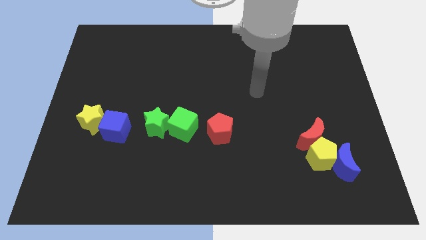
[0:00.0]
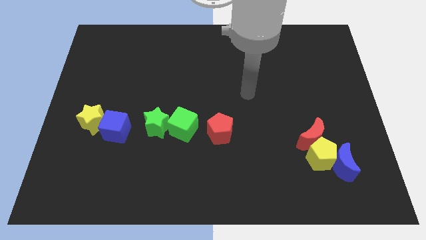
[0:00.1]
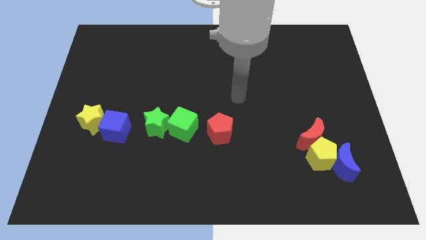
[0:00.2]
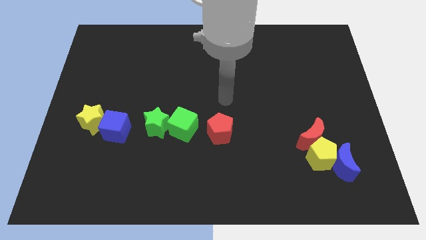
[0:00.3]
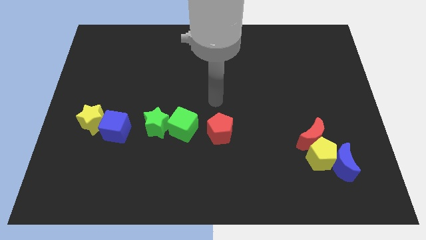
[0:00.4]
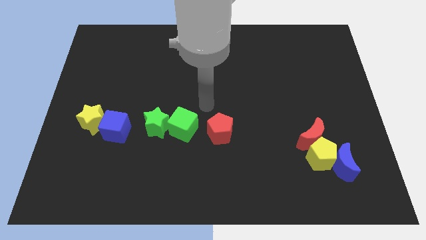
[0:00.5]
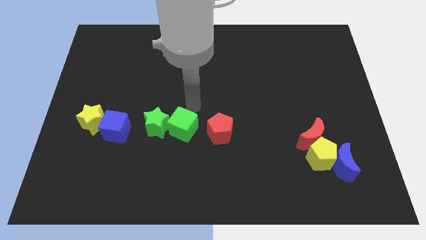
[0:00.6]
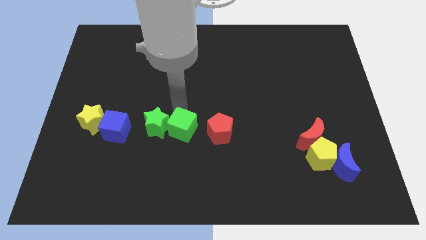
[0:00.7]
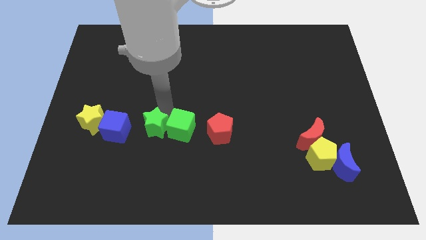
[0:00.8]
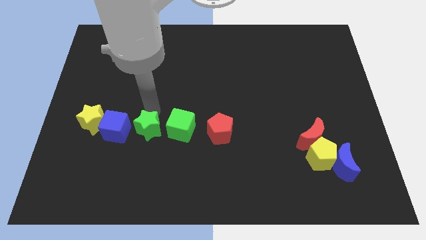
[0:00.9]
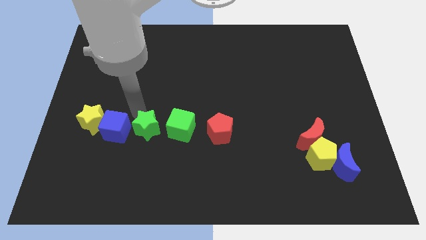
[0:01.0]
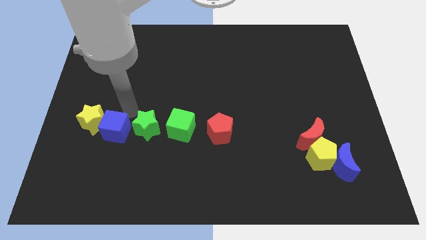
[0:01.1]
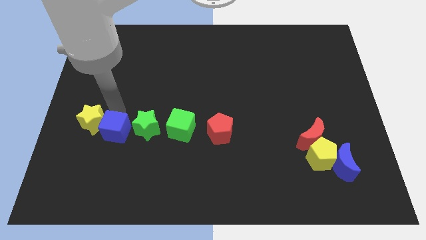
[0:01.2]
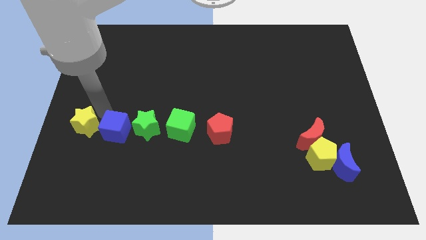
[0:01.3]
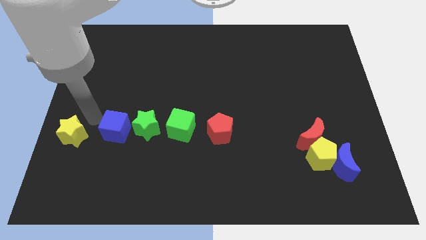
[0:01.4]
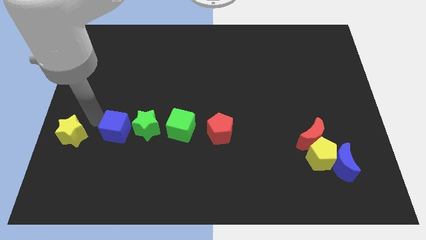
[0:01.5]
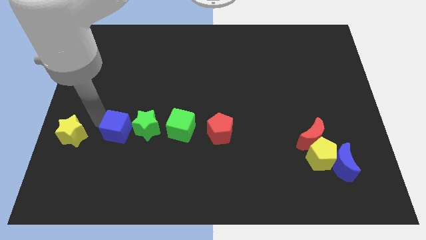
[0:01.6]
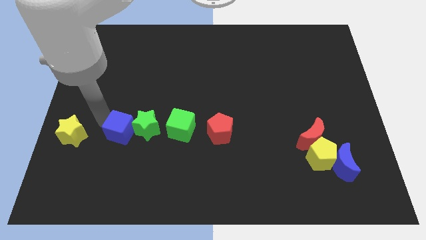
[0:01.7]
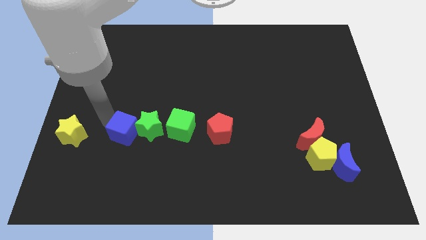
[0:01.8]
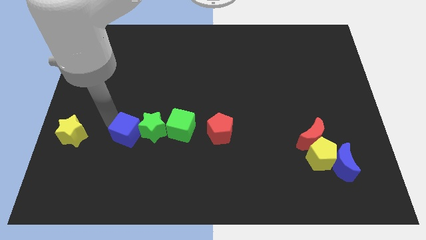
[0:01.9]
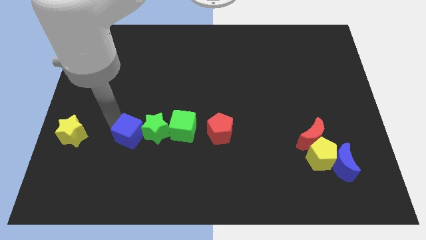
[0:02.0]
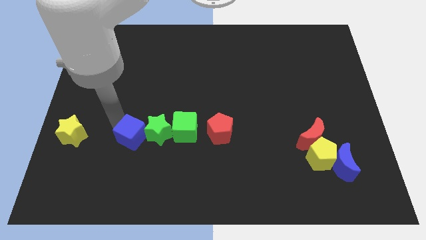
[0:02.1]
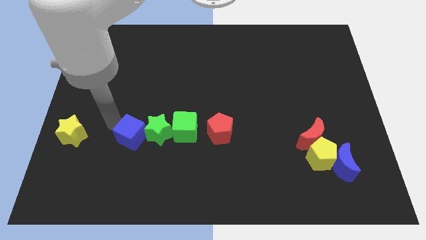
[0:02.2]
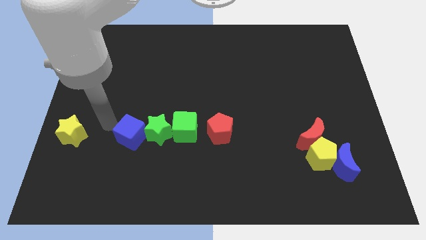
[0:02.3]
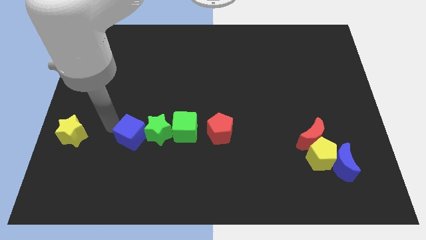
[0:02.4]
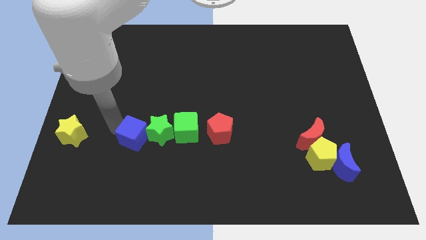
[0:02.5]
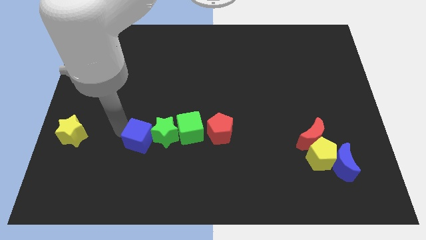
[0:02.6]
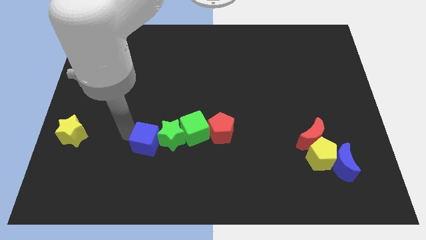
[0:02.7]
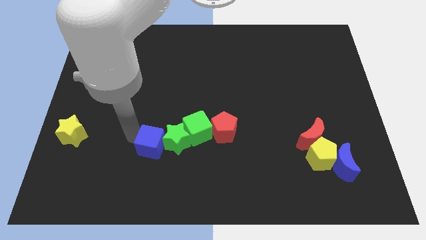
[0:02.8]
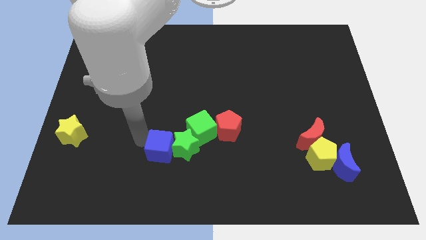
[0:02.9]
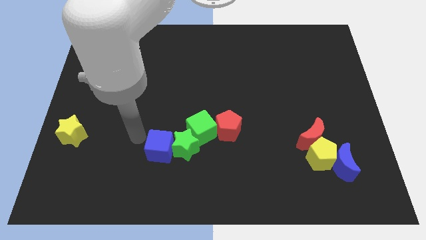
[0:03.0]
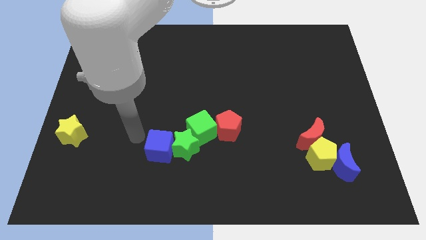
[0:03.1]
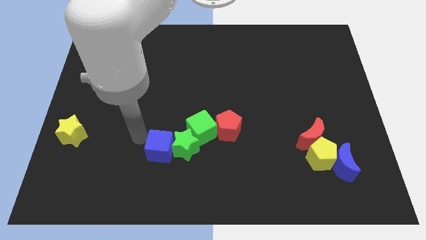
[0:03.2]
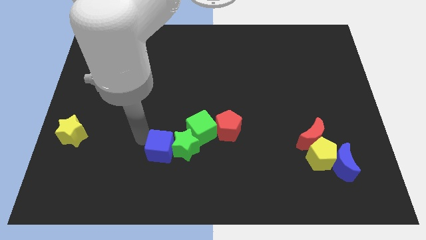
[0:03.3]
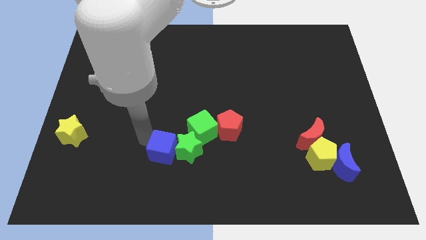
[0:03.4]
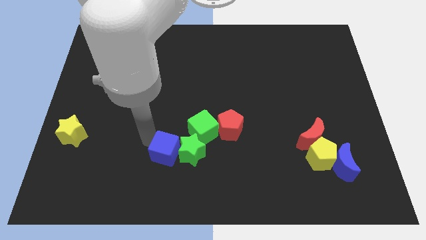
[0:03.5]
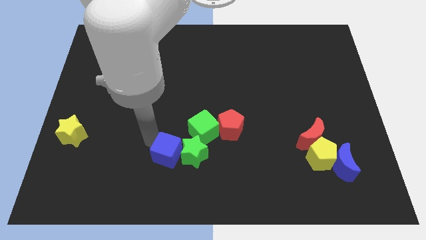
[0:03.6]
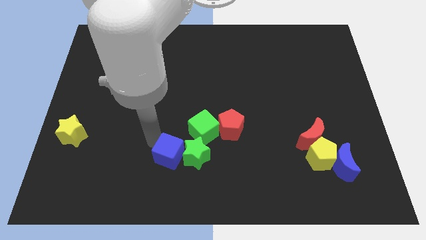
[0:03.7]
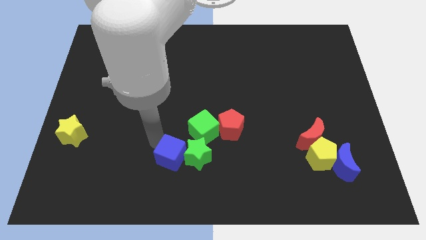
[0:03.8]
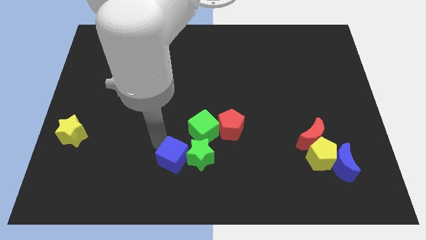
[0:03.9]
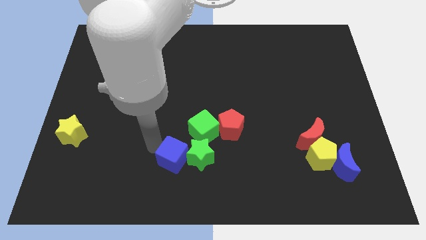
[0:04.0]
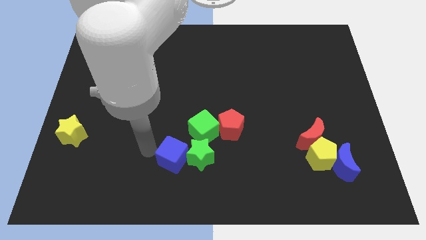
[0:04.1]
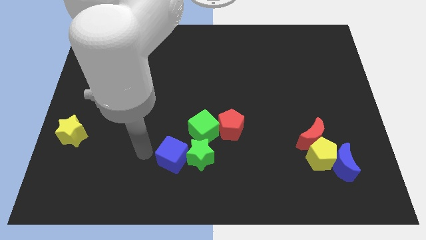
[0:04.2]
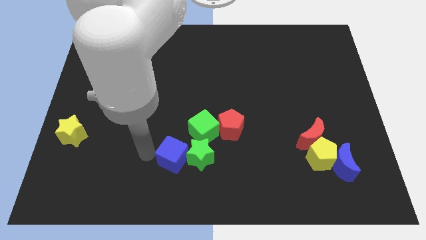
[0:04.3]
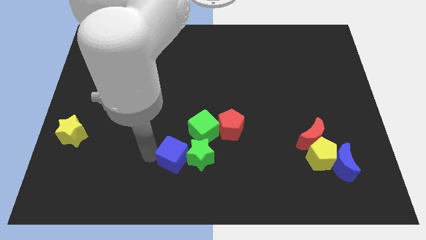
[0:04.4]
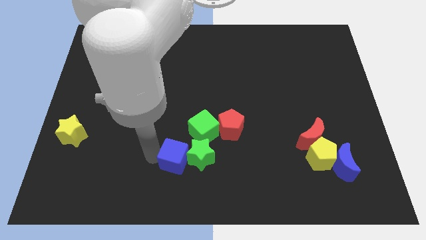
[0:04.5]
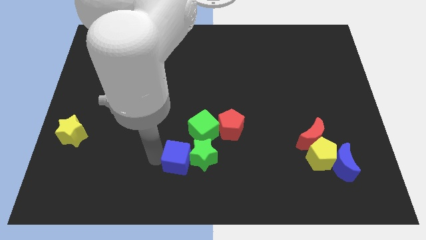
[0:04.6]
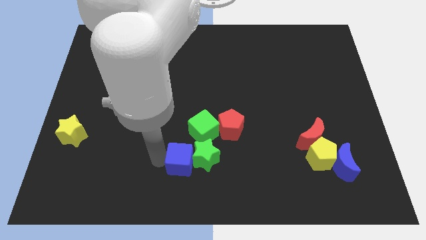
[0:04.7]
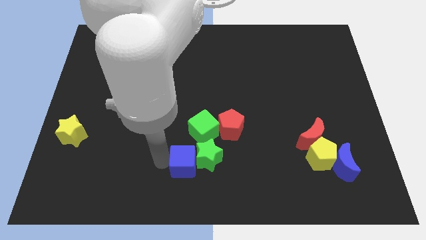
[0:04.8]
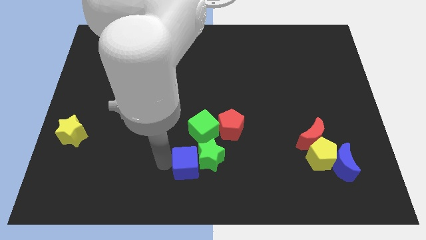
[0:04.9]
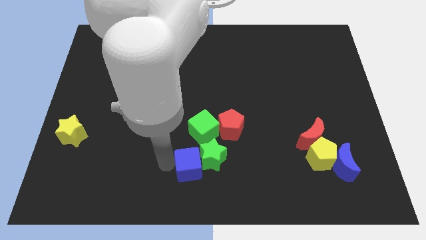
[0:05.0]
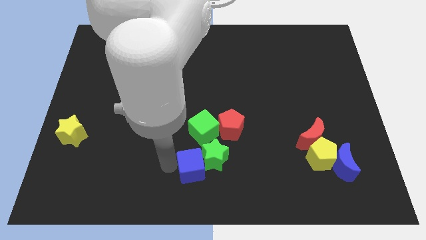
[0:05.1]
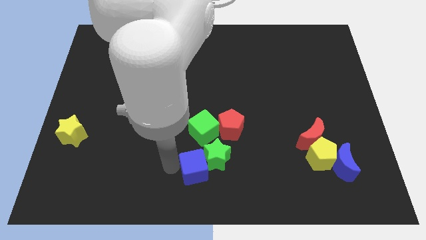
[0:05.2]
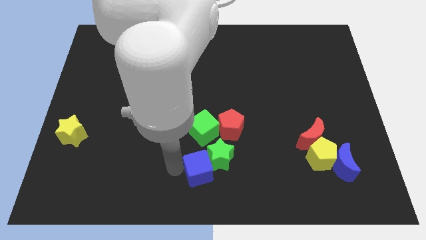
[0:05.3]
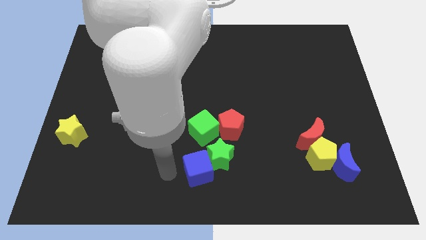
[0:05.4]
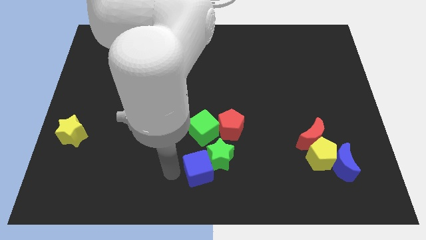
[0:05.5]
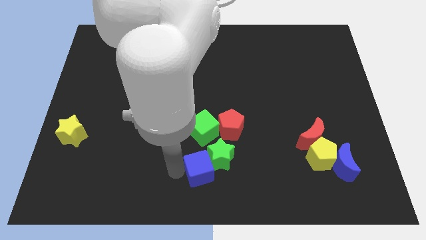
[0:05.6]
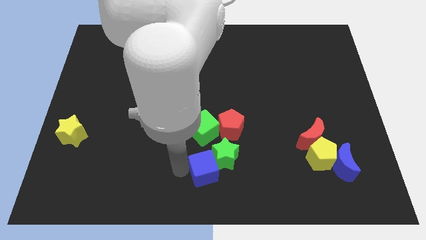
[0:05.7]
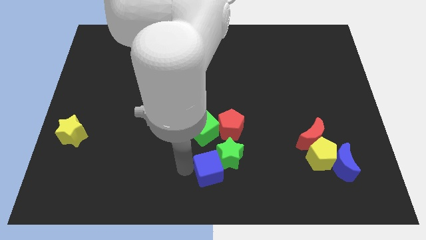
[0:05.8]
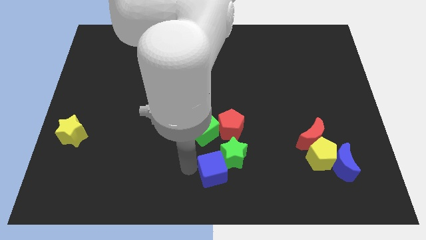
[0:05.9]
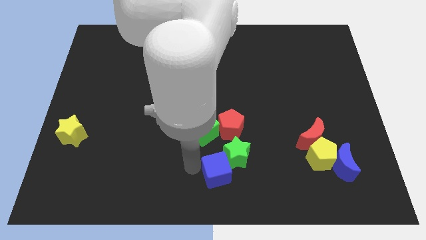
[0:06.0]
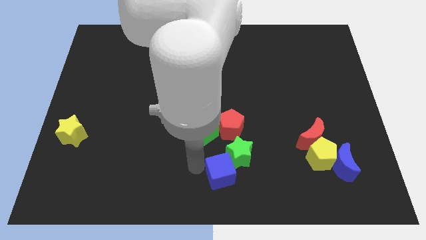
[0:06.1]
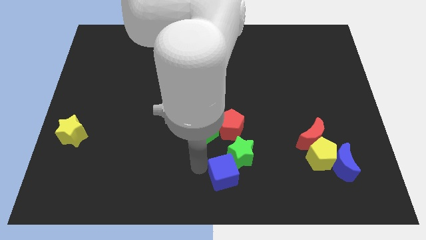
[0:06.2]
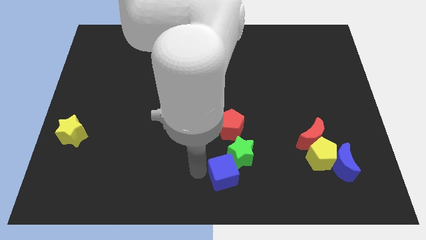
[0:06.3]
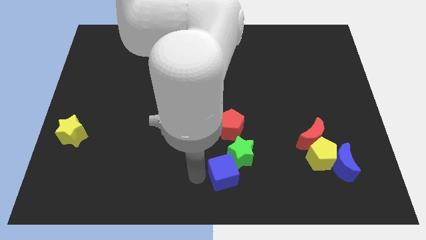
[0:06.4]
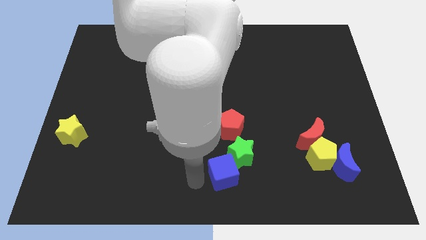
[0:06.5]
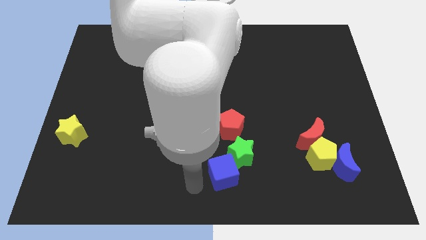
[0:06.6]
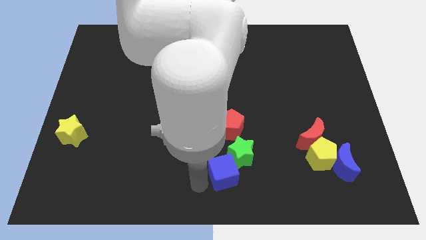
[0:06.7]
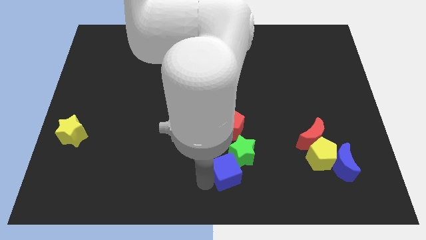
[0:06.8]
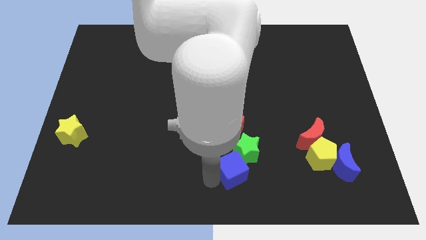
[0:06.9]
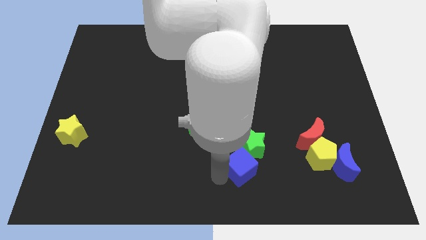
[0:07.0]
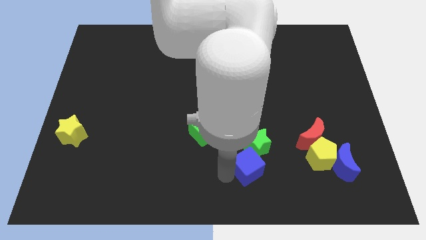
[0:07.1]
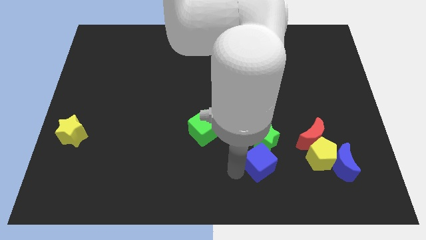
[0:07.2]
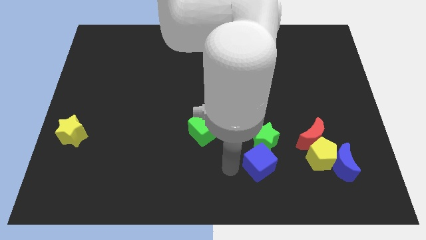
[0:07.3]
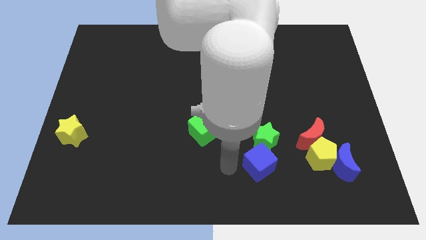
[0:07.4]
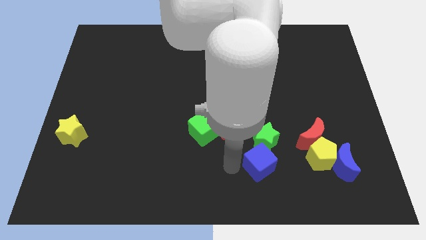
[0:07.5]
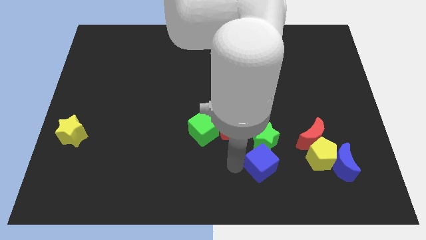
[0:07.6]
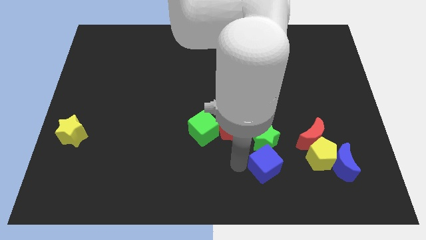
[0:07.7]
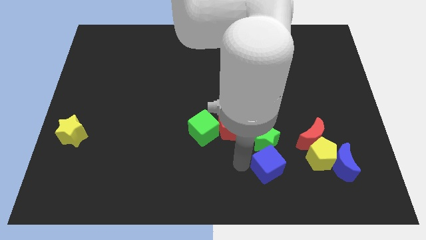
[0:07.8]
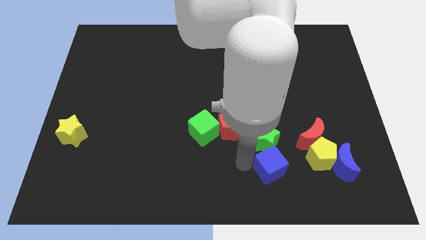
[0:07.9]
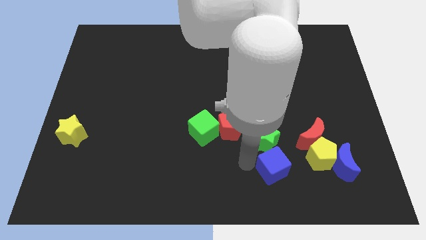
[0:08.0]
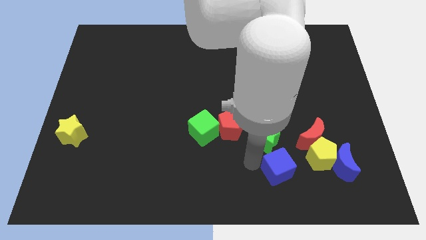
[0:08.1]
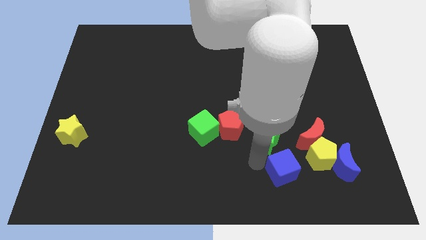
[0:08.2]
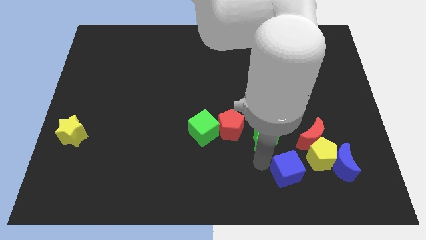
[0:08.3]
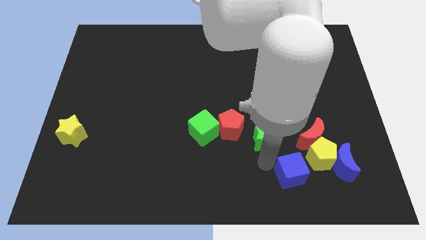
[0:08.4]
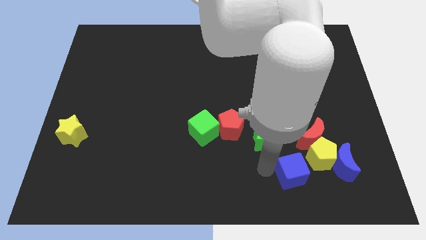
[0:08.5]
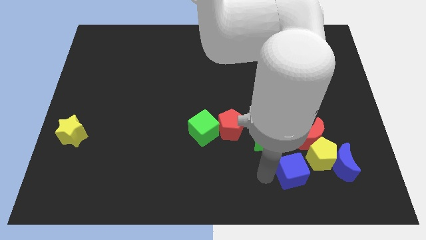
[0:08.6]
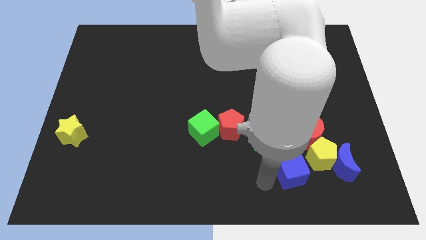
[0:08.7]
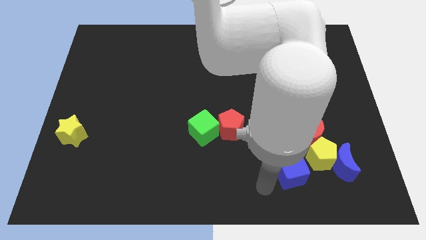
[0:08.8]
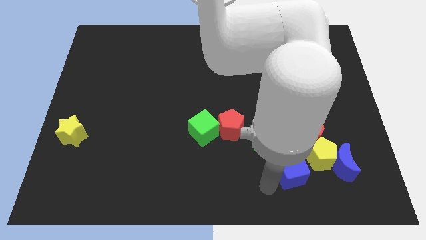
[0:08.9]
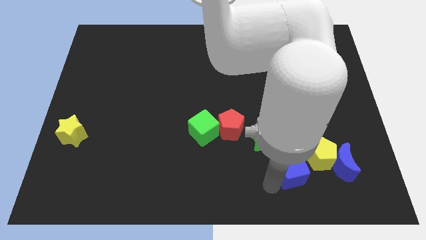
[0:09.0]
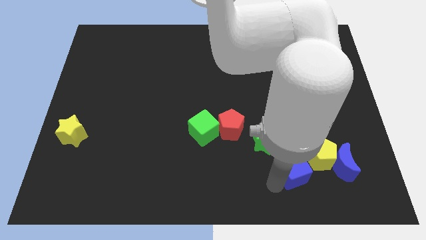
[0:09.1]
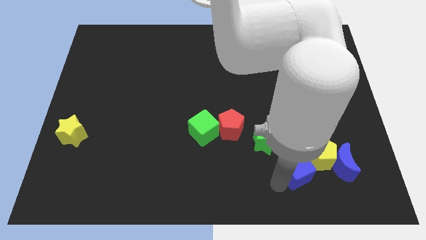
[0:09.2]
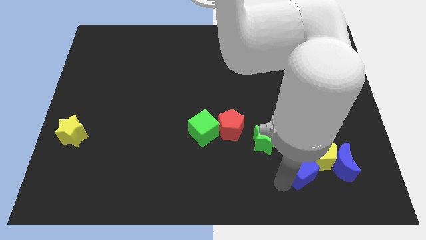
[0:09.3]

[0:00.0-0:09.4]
push the blue cube next to the yellow pentagon
